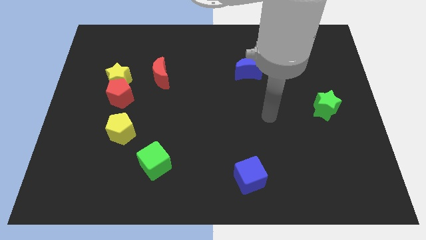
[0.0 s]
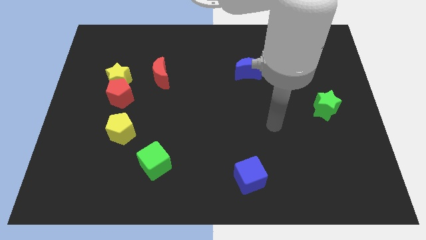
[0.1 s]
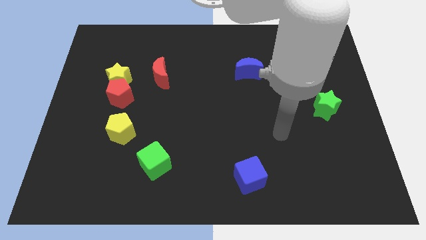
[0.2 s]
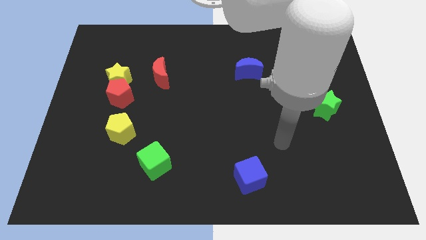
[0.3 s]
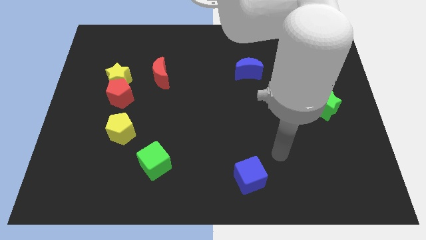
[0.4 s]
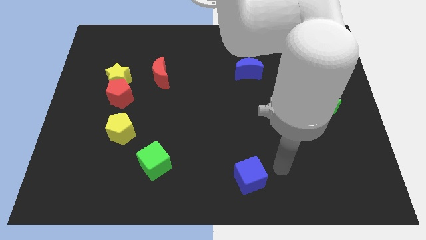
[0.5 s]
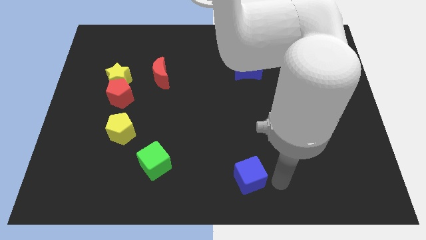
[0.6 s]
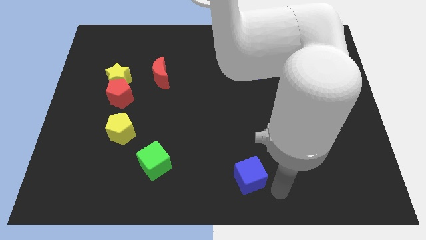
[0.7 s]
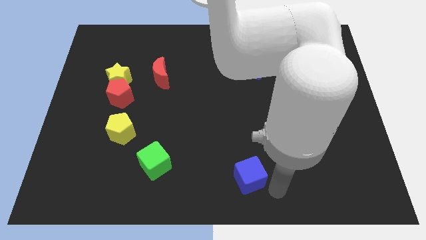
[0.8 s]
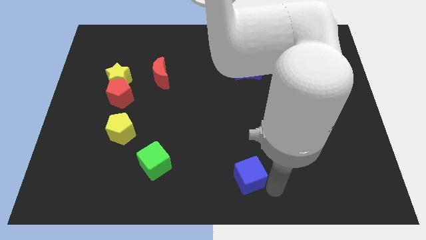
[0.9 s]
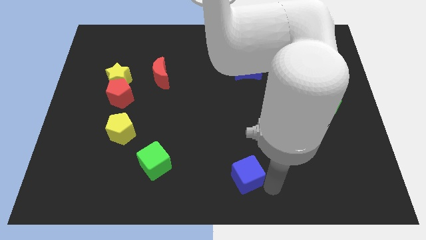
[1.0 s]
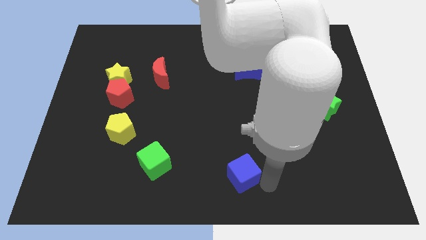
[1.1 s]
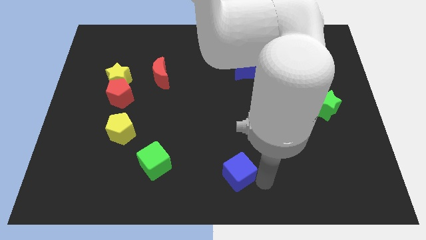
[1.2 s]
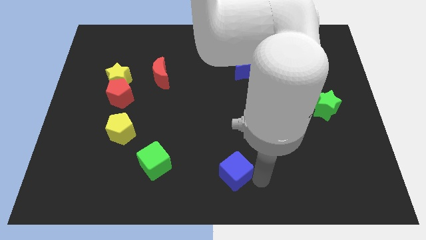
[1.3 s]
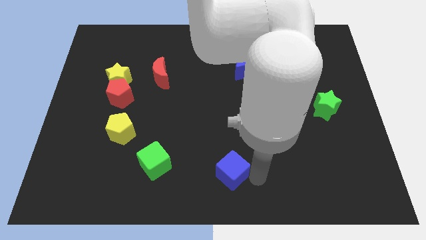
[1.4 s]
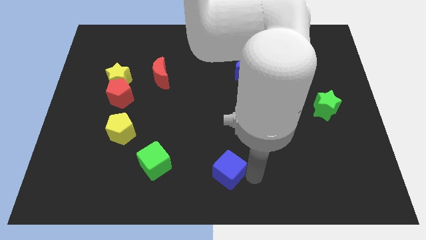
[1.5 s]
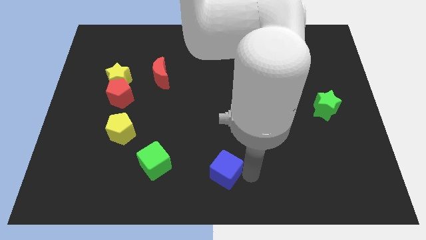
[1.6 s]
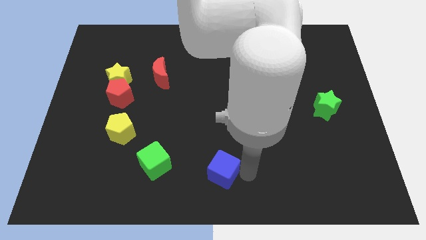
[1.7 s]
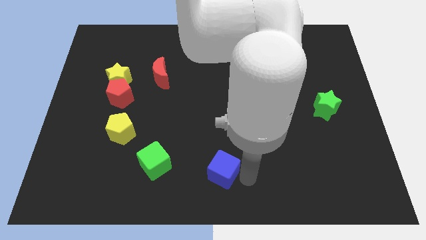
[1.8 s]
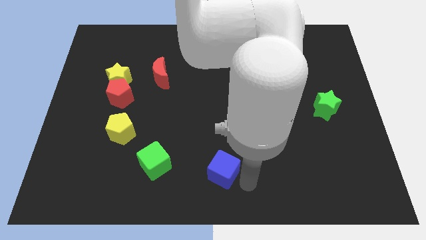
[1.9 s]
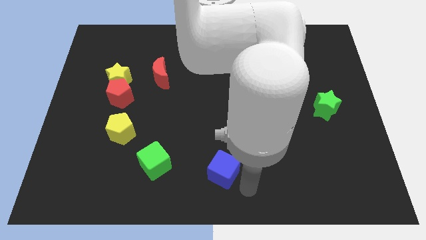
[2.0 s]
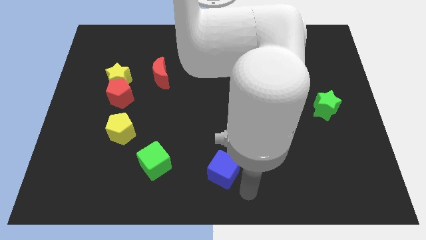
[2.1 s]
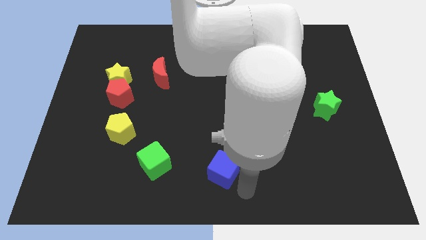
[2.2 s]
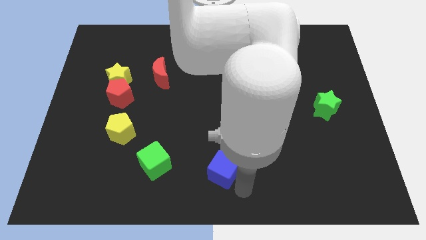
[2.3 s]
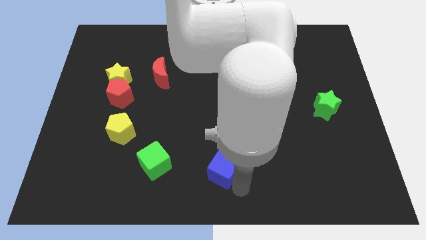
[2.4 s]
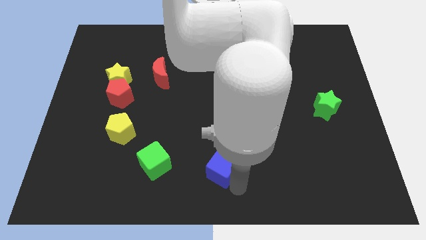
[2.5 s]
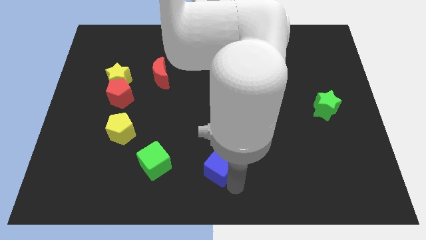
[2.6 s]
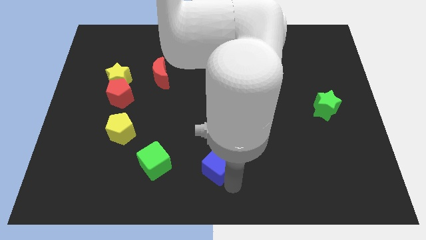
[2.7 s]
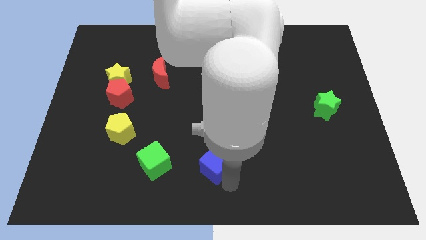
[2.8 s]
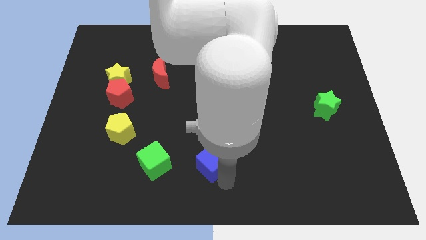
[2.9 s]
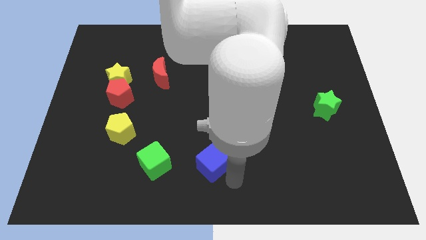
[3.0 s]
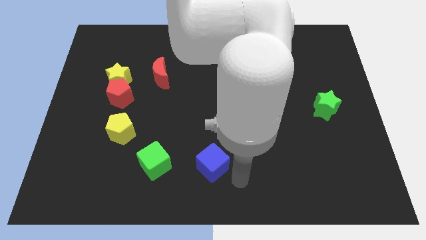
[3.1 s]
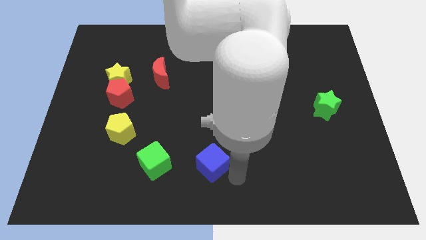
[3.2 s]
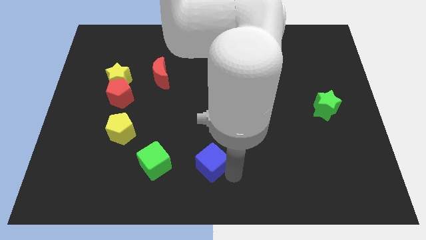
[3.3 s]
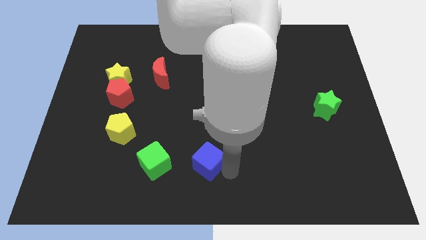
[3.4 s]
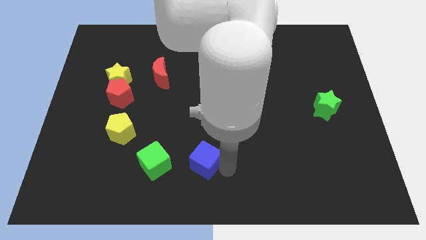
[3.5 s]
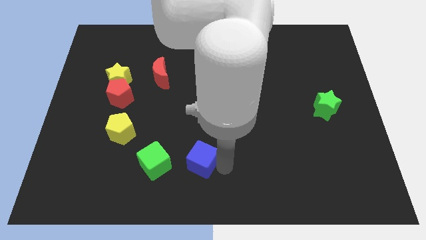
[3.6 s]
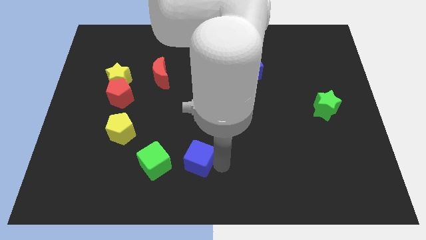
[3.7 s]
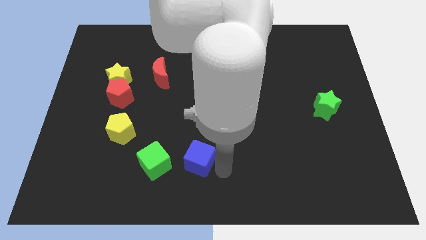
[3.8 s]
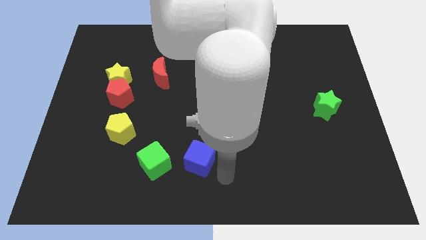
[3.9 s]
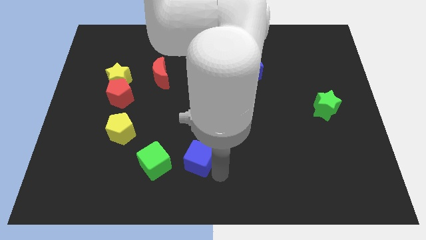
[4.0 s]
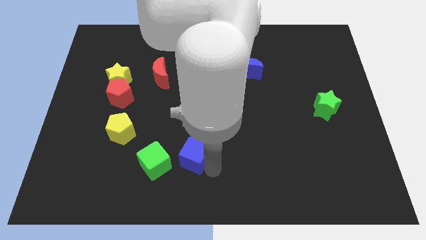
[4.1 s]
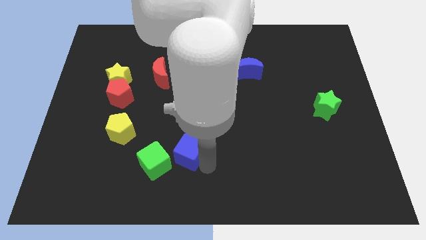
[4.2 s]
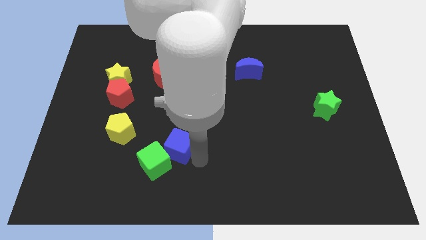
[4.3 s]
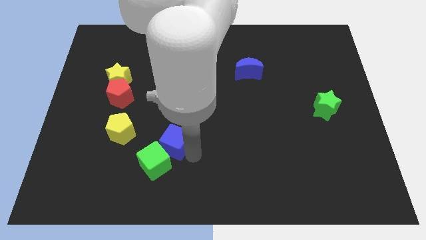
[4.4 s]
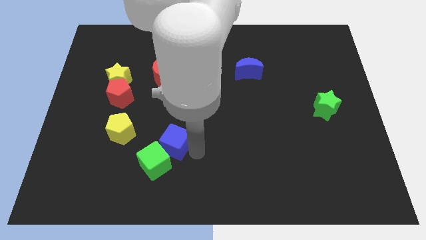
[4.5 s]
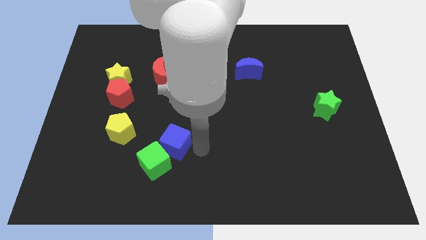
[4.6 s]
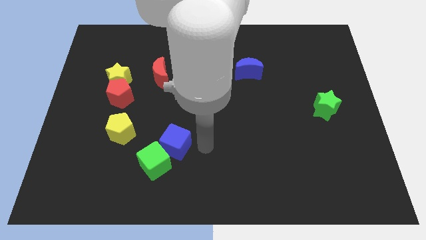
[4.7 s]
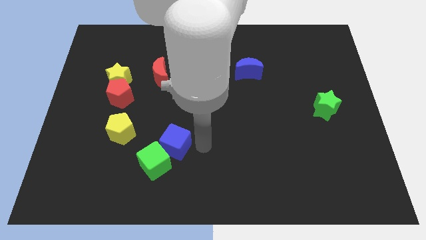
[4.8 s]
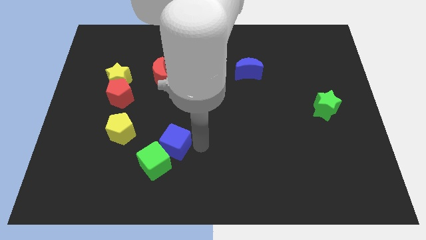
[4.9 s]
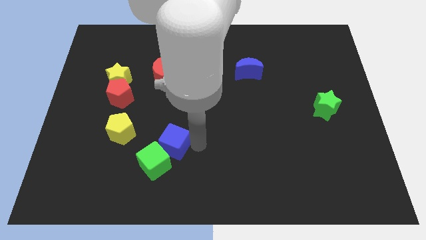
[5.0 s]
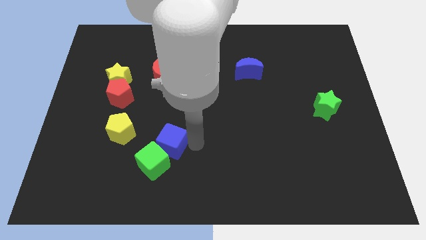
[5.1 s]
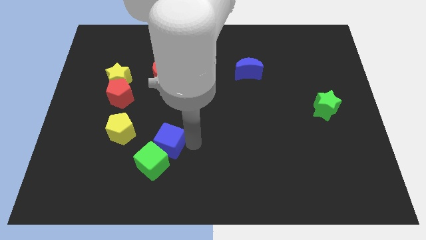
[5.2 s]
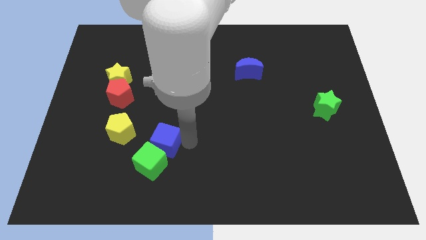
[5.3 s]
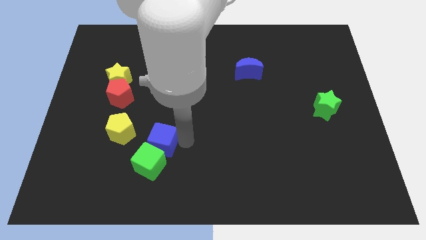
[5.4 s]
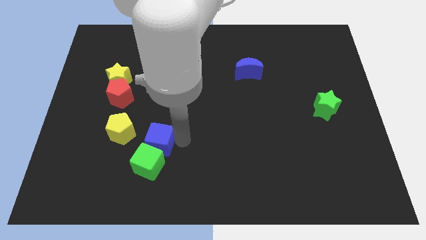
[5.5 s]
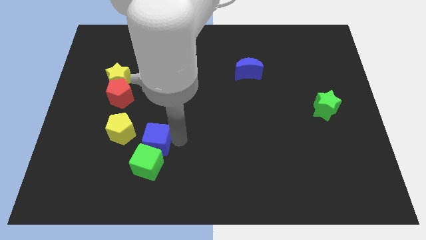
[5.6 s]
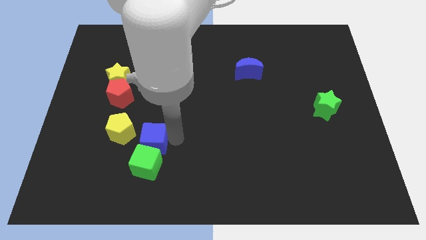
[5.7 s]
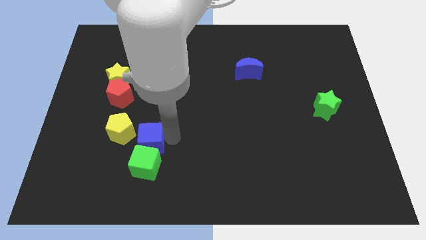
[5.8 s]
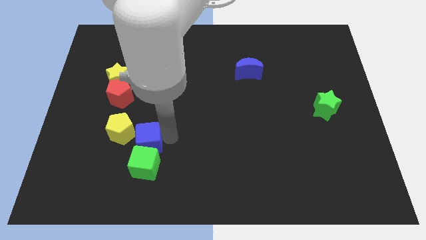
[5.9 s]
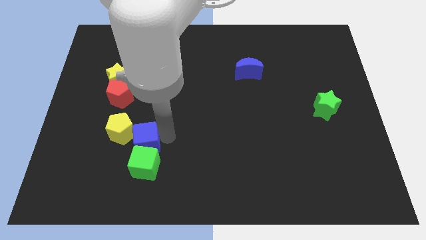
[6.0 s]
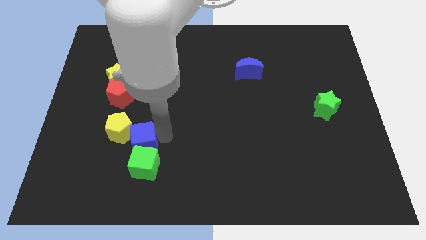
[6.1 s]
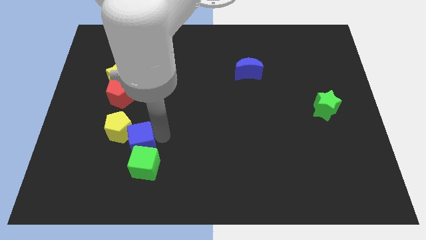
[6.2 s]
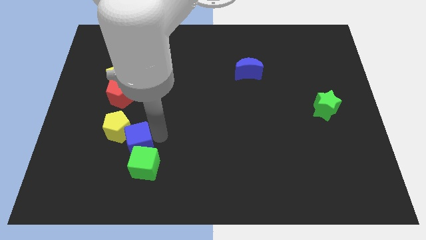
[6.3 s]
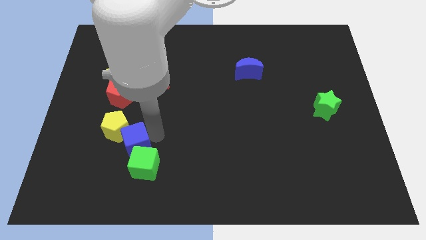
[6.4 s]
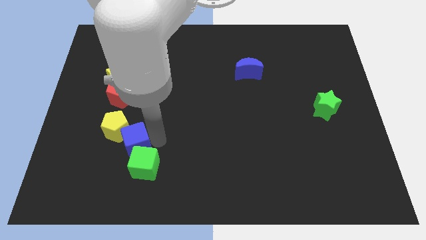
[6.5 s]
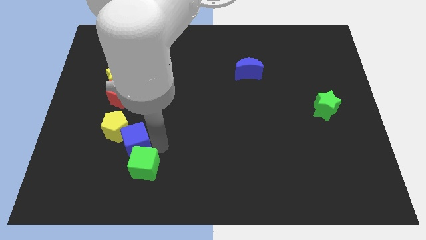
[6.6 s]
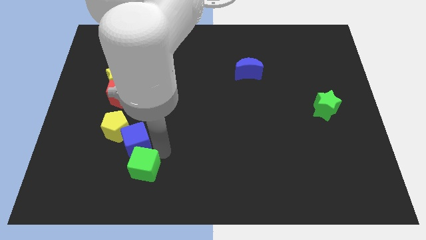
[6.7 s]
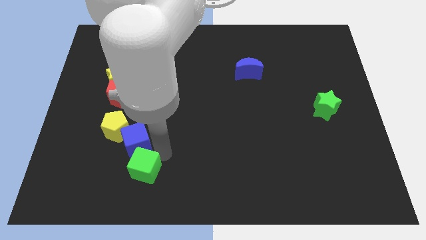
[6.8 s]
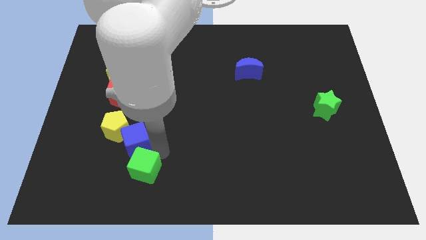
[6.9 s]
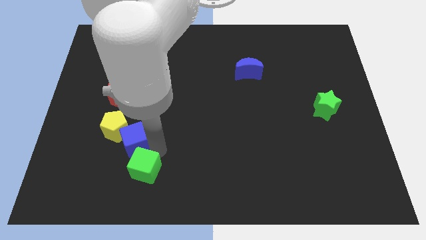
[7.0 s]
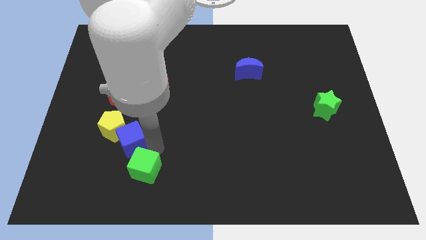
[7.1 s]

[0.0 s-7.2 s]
slide the blue cube below the red pentagon
